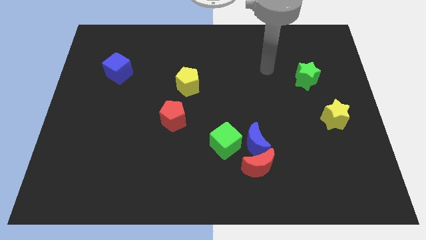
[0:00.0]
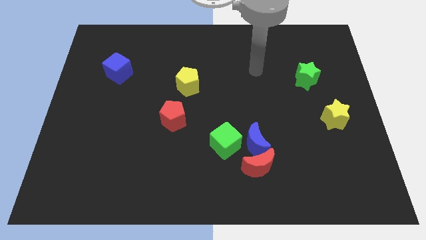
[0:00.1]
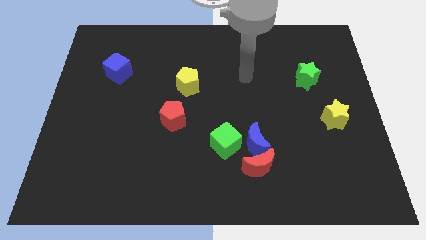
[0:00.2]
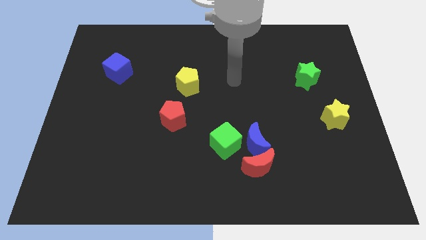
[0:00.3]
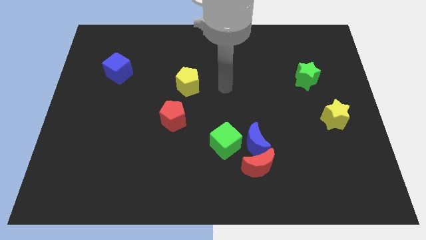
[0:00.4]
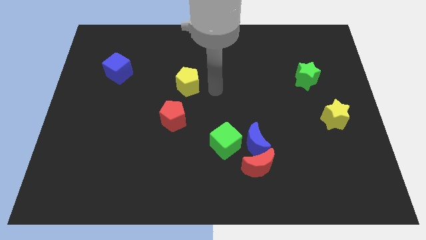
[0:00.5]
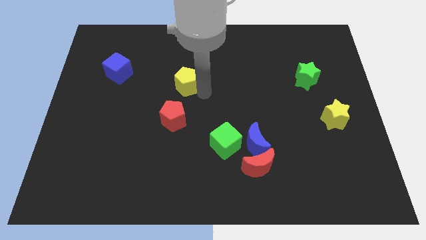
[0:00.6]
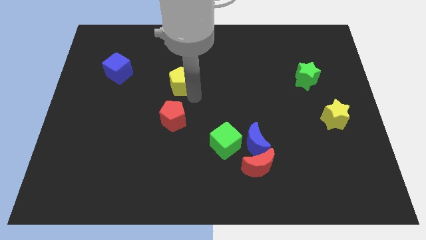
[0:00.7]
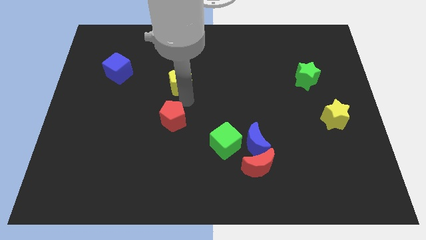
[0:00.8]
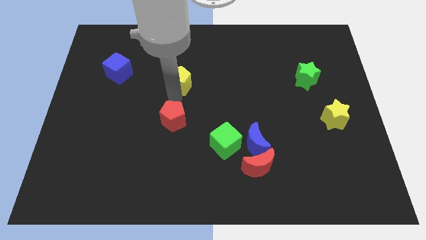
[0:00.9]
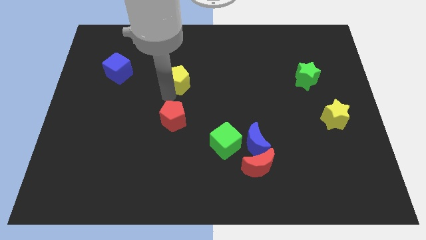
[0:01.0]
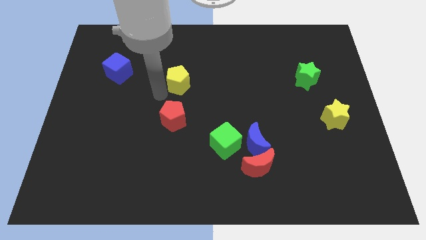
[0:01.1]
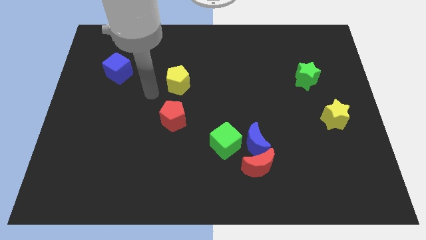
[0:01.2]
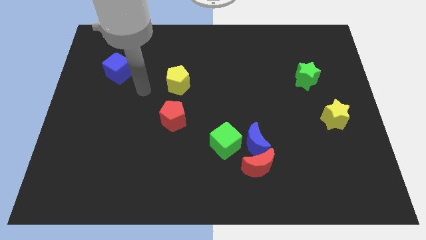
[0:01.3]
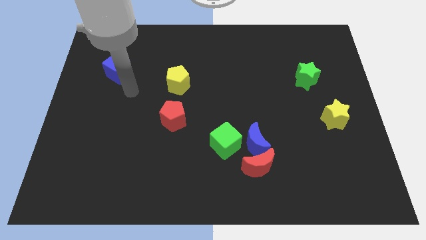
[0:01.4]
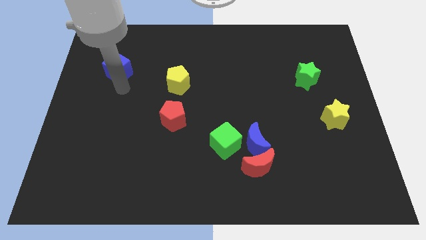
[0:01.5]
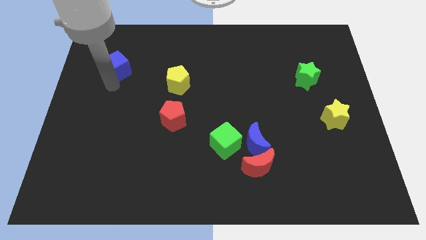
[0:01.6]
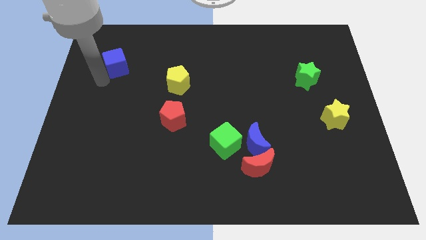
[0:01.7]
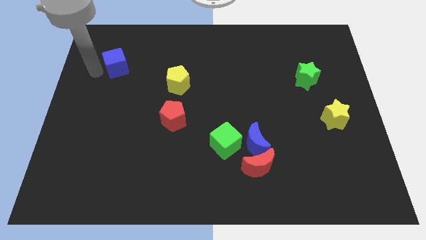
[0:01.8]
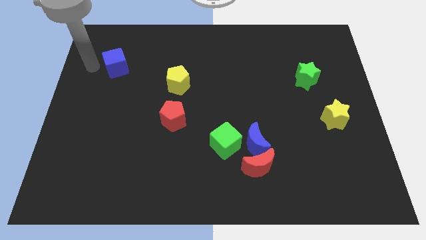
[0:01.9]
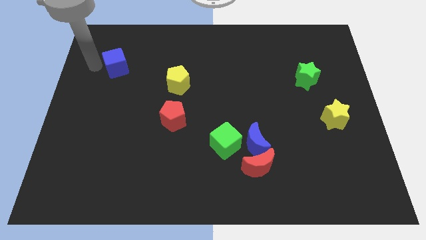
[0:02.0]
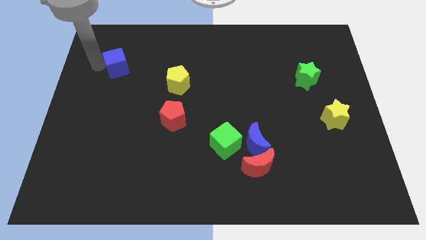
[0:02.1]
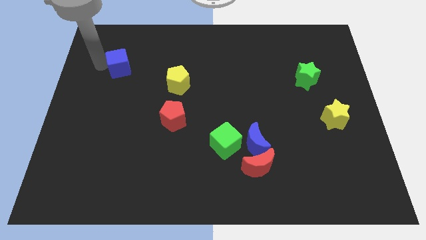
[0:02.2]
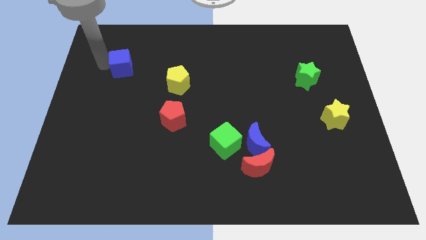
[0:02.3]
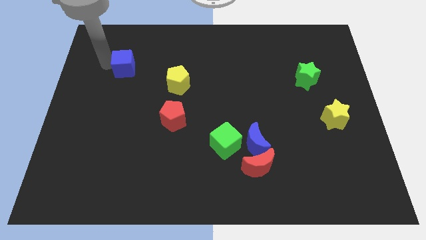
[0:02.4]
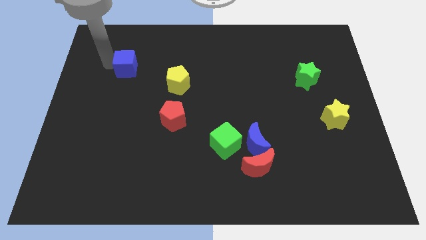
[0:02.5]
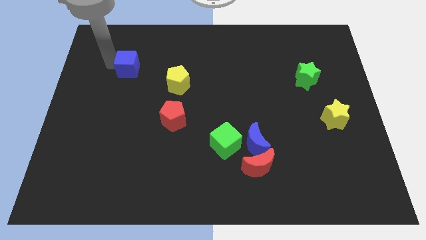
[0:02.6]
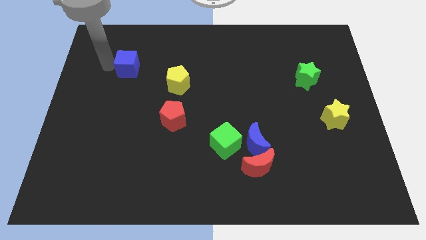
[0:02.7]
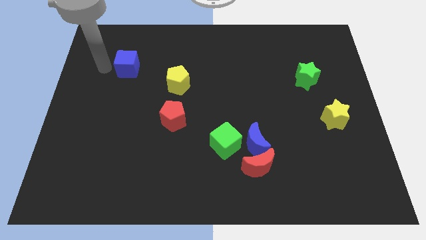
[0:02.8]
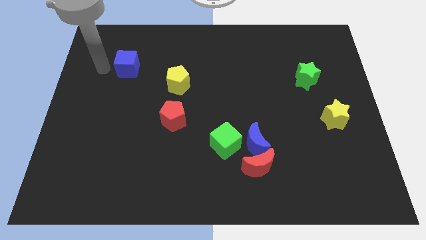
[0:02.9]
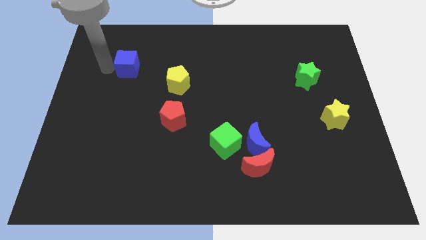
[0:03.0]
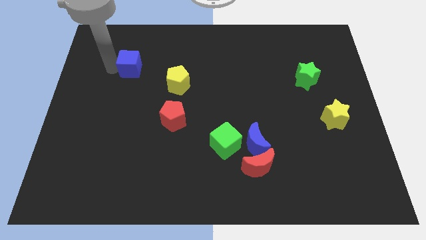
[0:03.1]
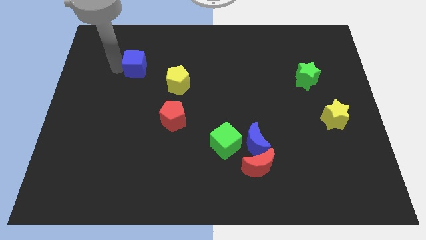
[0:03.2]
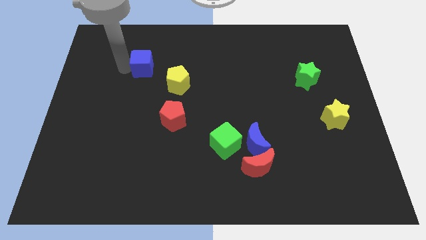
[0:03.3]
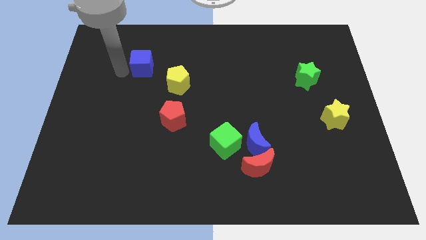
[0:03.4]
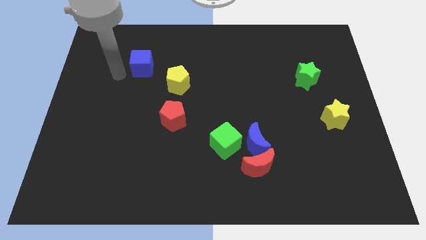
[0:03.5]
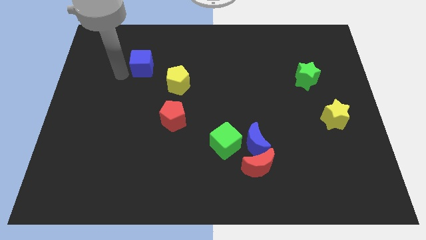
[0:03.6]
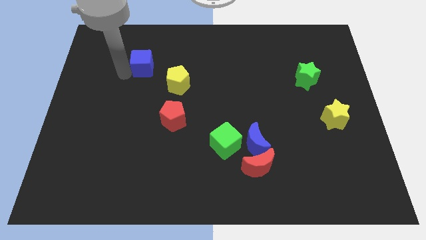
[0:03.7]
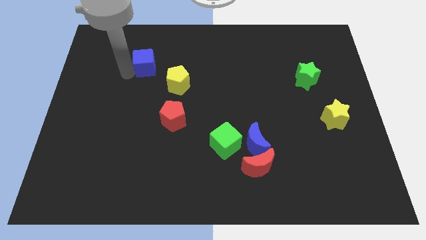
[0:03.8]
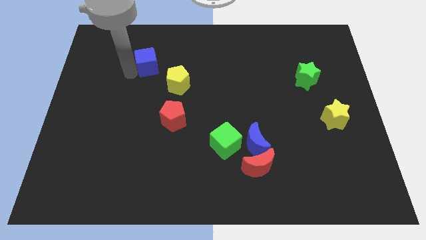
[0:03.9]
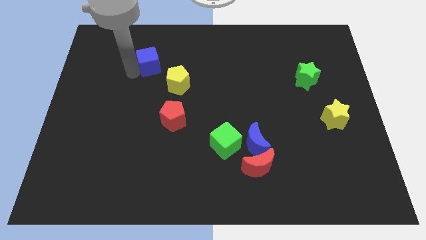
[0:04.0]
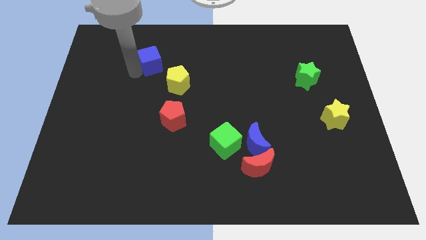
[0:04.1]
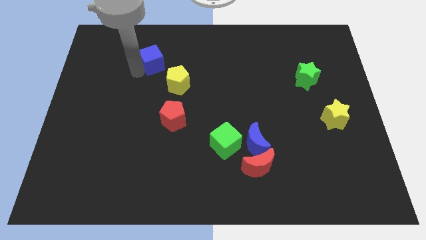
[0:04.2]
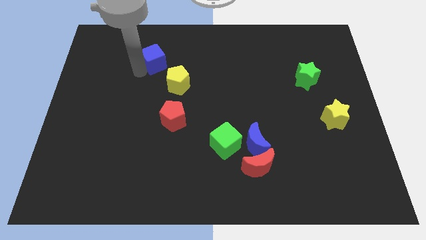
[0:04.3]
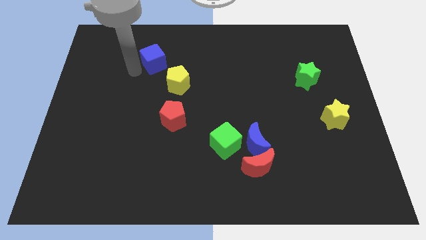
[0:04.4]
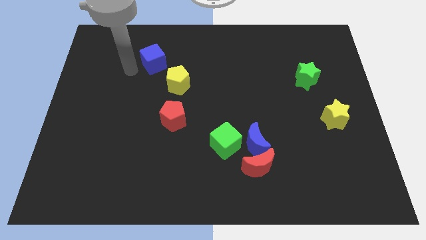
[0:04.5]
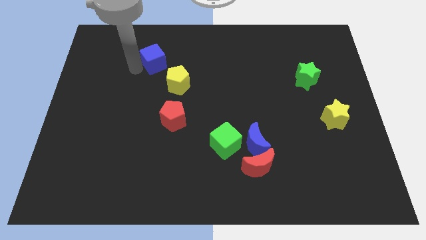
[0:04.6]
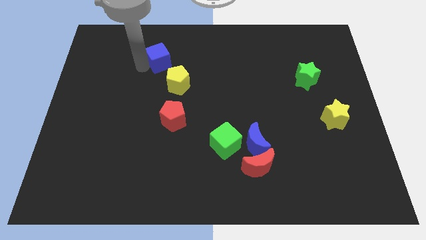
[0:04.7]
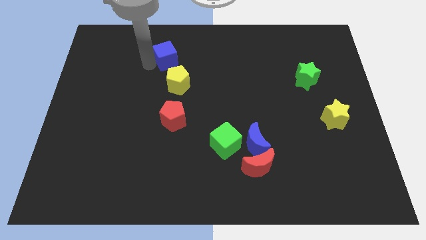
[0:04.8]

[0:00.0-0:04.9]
move the blue cube to the top side of the yellow pentagon

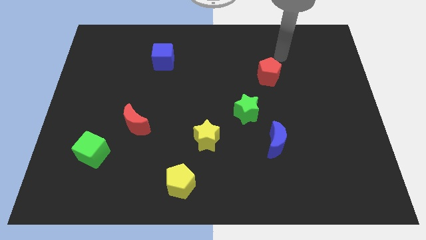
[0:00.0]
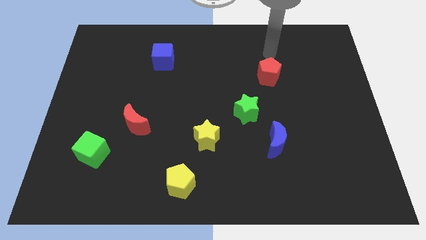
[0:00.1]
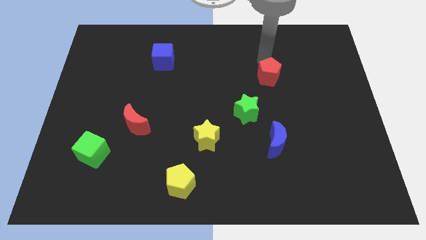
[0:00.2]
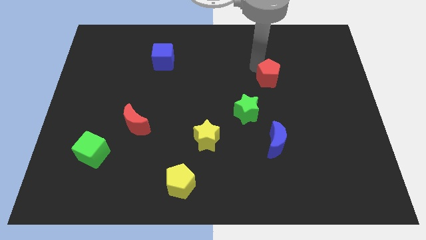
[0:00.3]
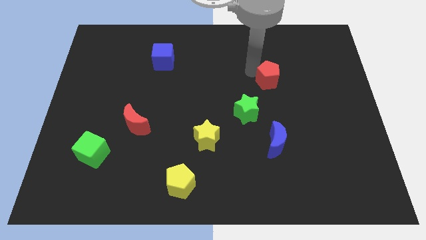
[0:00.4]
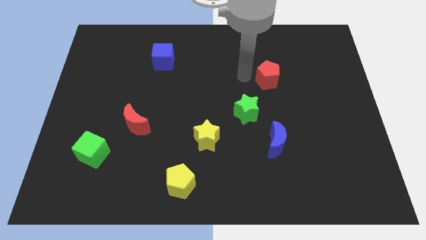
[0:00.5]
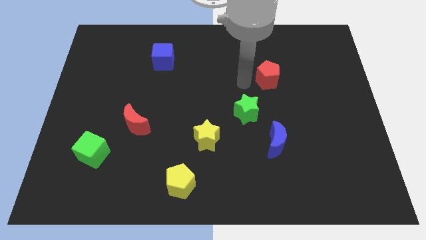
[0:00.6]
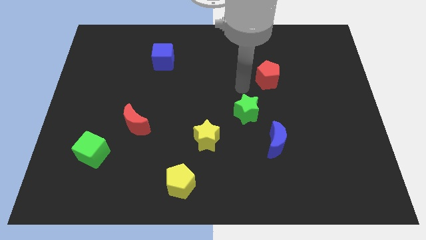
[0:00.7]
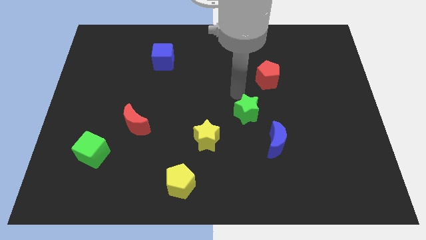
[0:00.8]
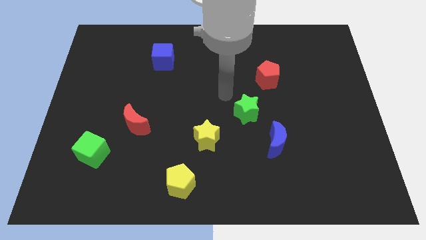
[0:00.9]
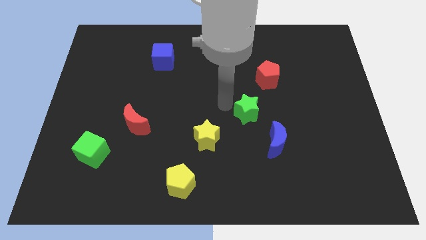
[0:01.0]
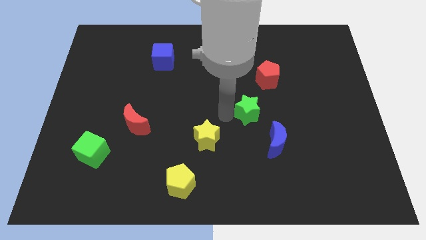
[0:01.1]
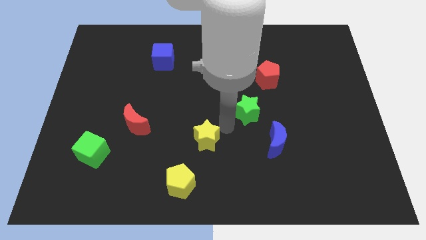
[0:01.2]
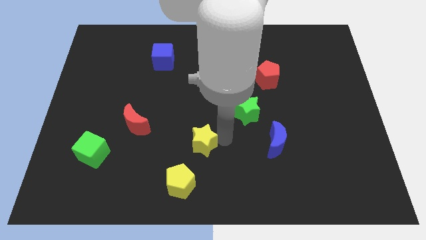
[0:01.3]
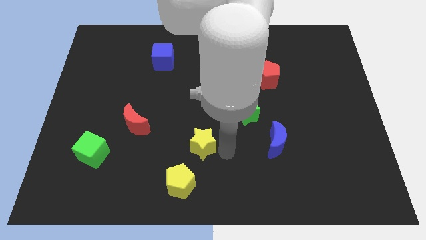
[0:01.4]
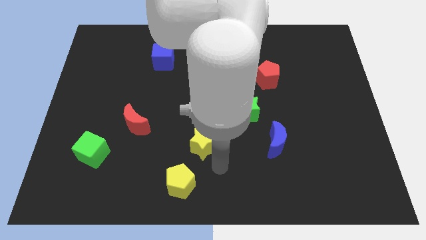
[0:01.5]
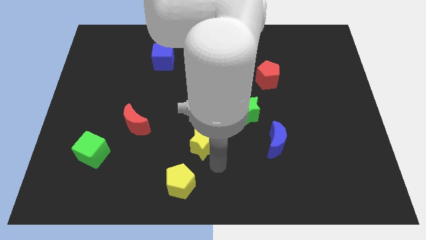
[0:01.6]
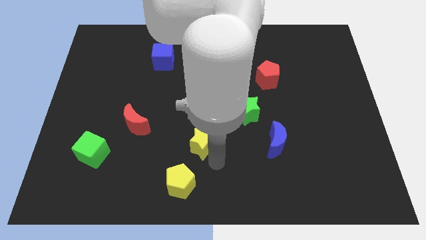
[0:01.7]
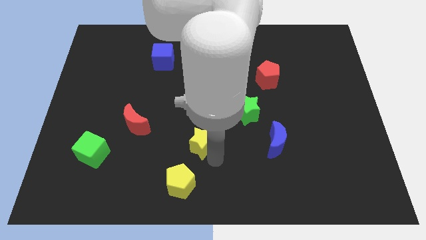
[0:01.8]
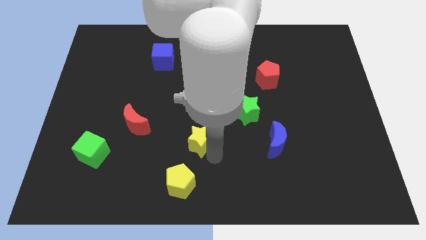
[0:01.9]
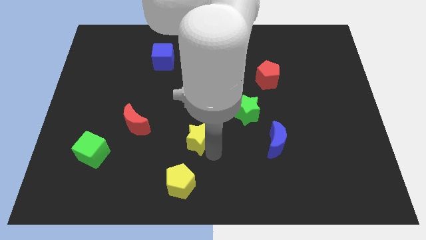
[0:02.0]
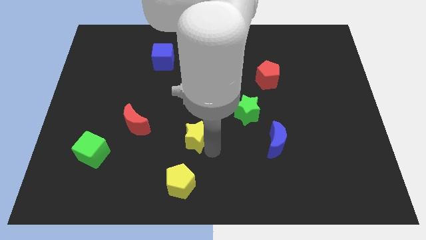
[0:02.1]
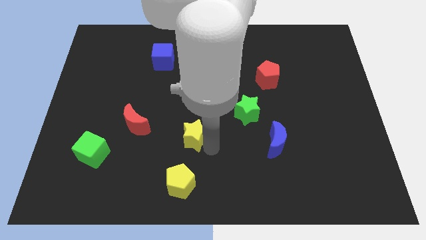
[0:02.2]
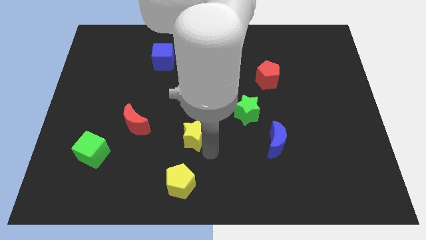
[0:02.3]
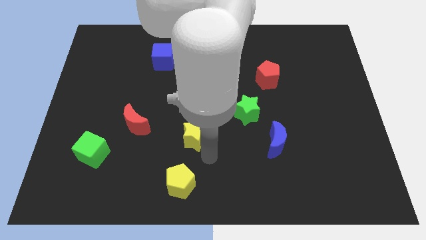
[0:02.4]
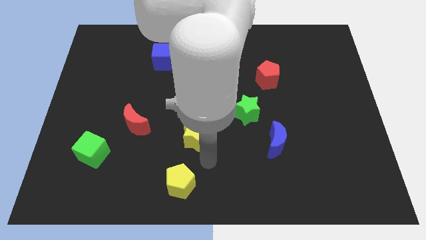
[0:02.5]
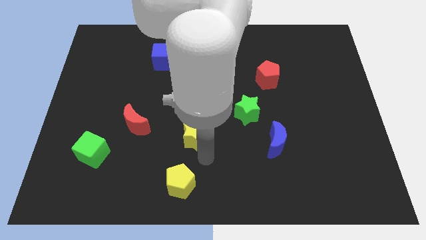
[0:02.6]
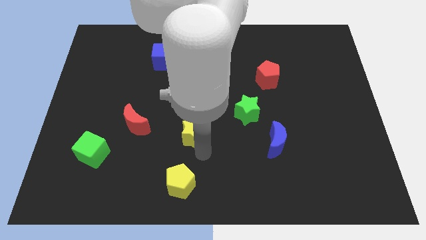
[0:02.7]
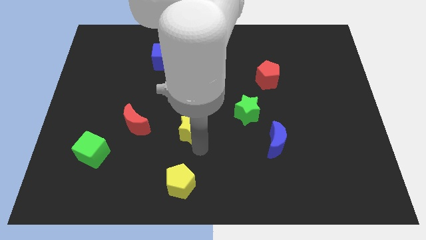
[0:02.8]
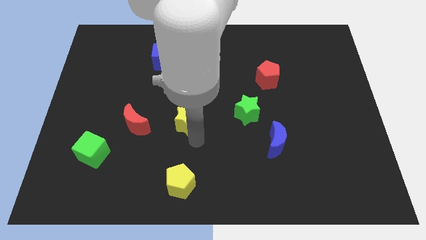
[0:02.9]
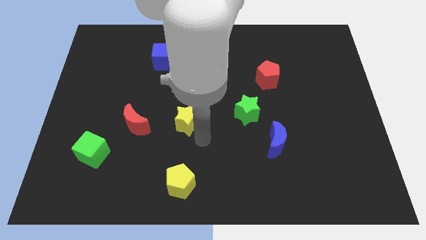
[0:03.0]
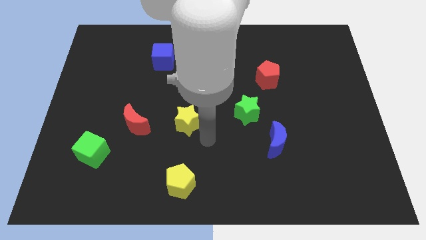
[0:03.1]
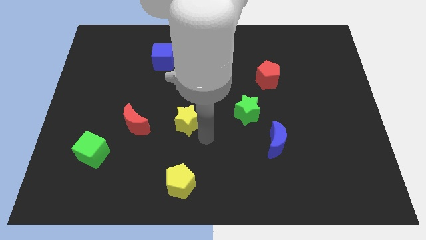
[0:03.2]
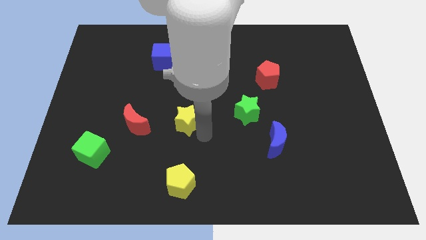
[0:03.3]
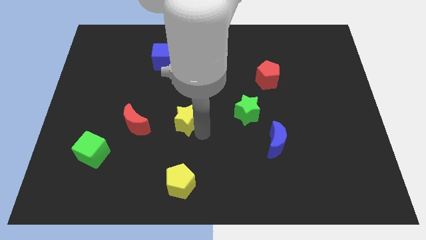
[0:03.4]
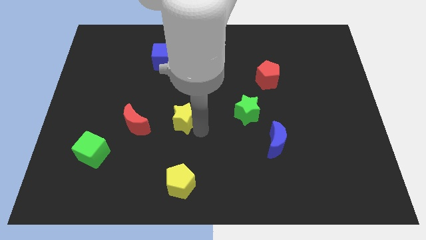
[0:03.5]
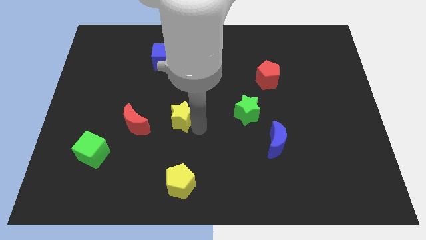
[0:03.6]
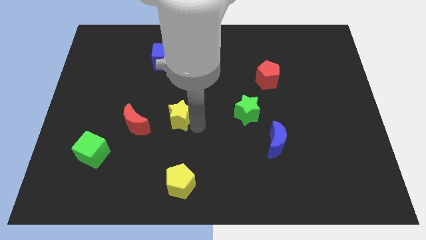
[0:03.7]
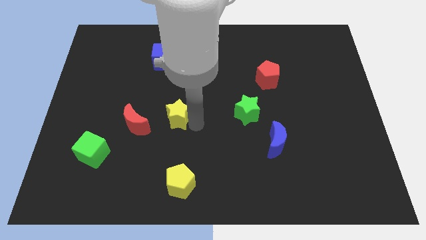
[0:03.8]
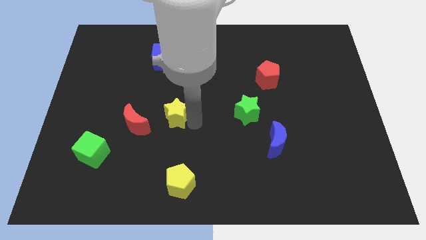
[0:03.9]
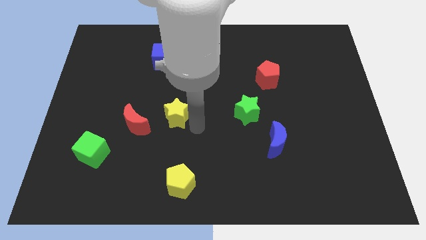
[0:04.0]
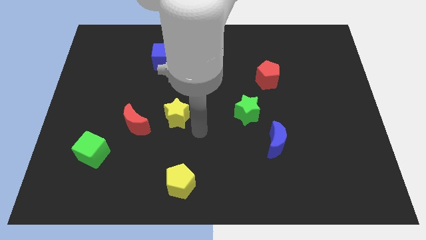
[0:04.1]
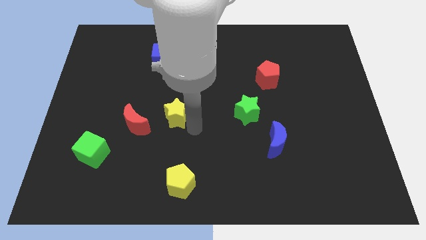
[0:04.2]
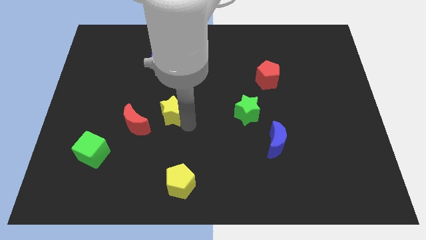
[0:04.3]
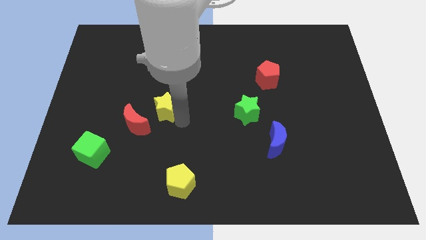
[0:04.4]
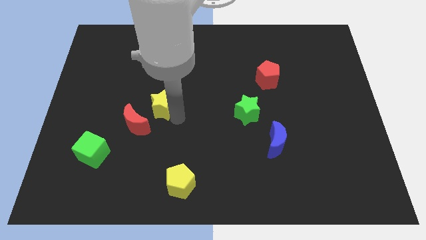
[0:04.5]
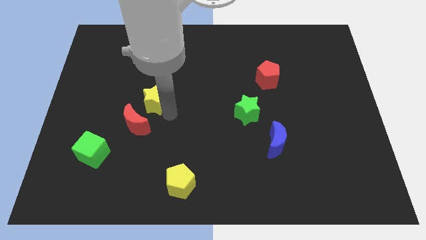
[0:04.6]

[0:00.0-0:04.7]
put the yellow star to the top of the red moon
